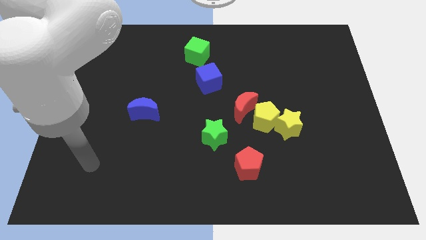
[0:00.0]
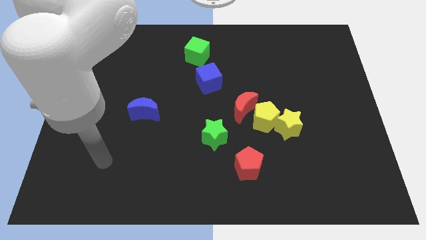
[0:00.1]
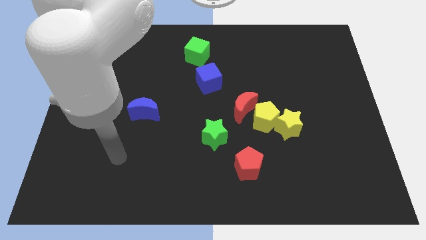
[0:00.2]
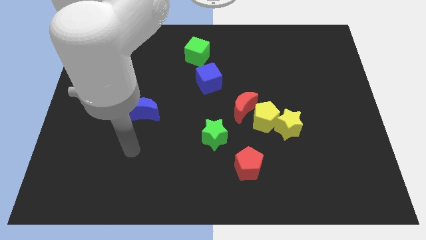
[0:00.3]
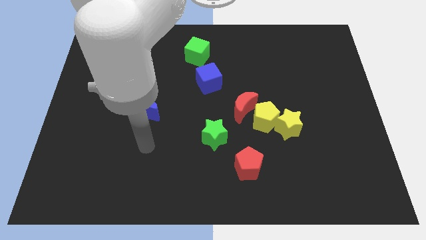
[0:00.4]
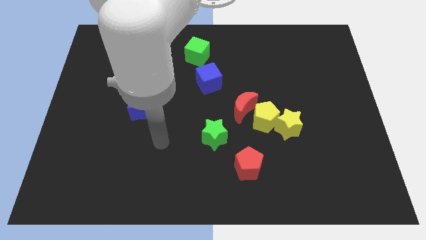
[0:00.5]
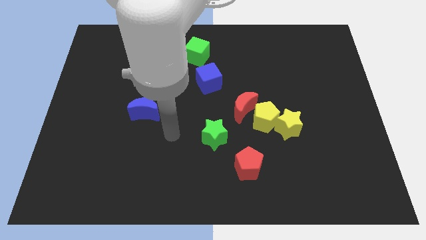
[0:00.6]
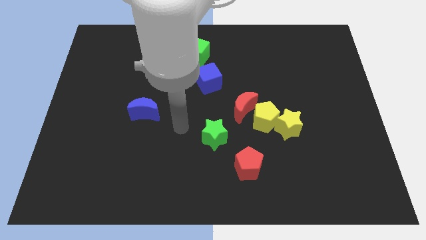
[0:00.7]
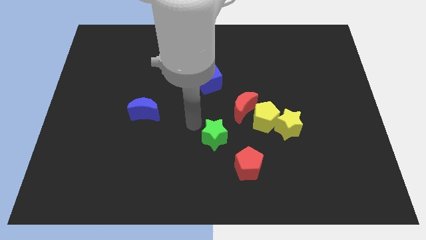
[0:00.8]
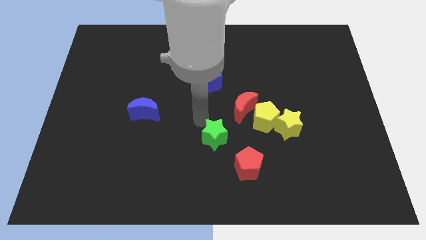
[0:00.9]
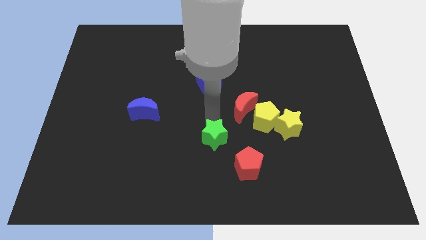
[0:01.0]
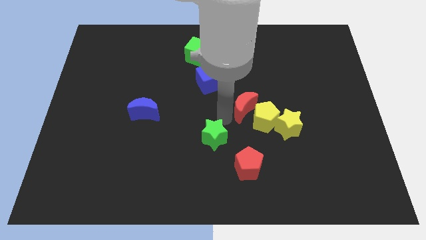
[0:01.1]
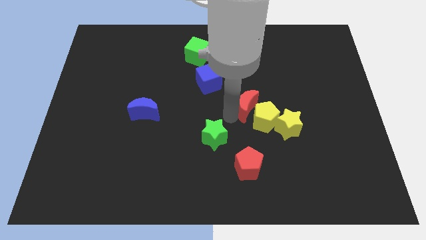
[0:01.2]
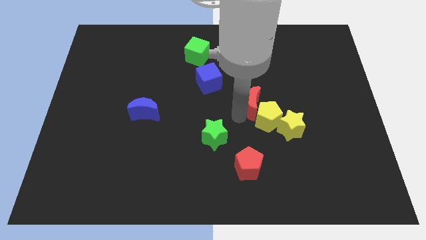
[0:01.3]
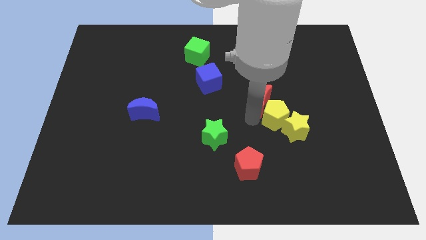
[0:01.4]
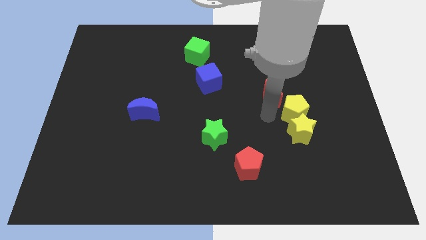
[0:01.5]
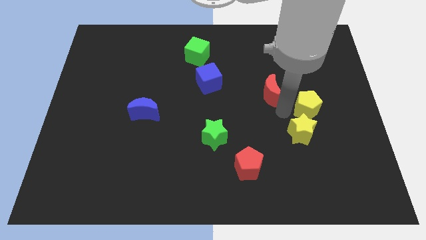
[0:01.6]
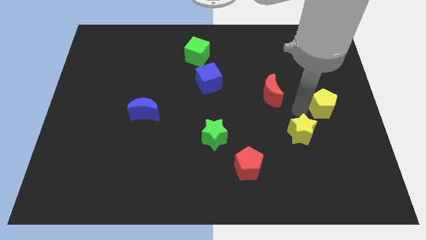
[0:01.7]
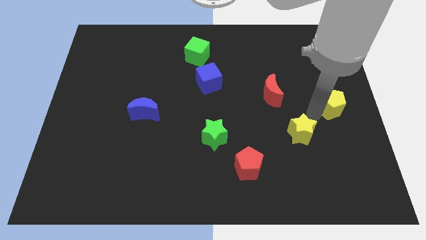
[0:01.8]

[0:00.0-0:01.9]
pull the yellow star apart from the yellow pentagon

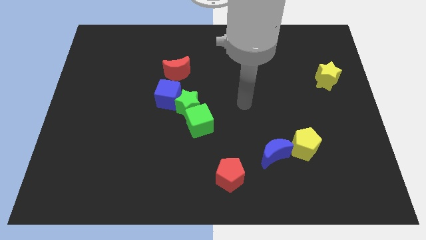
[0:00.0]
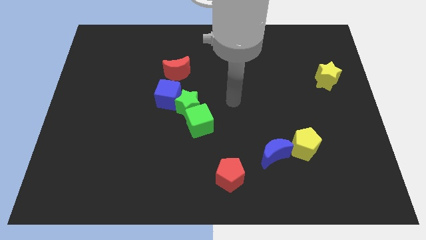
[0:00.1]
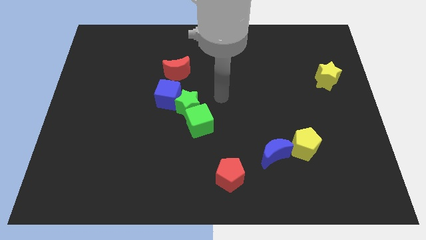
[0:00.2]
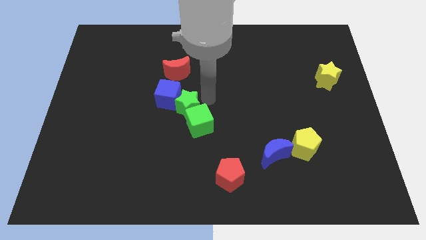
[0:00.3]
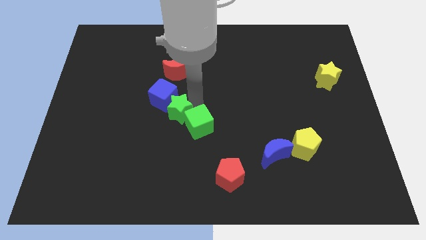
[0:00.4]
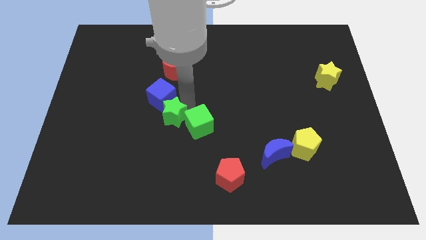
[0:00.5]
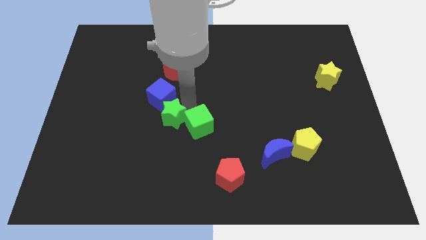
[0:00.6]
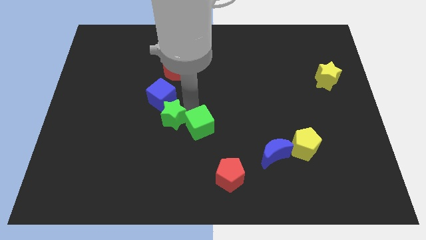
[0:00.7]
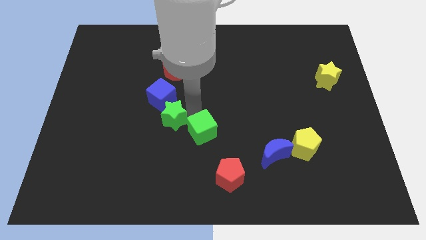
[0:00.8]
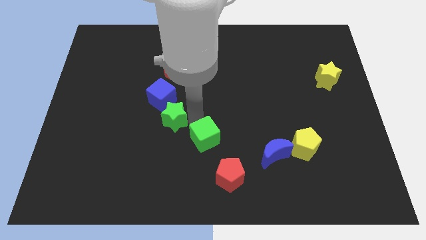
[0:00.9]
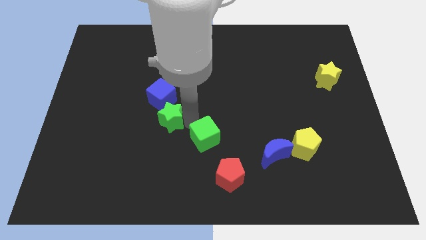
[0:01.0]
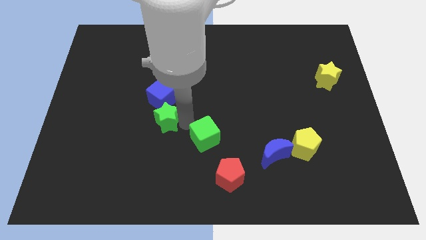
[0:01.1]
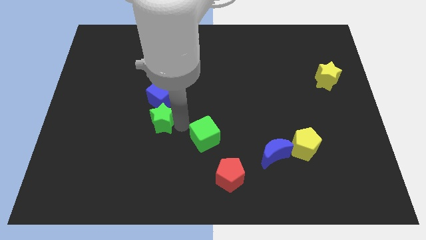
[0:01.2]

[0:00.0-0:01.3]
pull the green cube apart from the green star

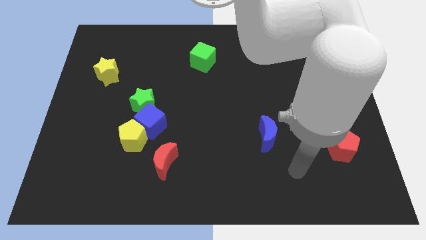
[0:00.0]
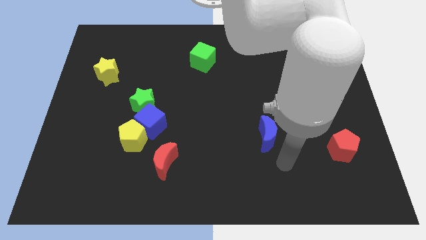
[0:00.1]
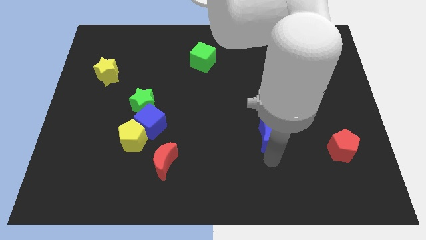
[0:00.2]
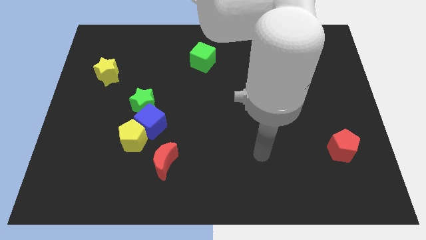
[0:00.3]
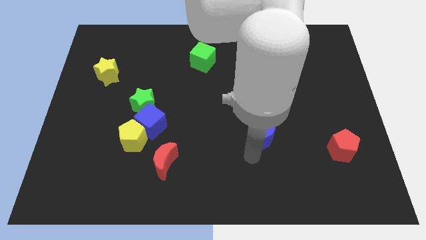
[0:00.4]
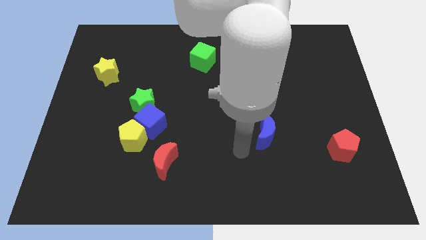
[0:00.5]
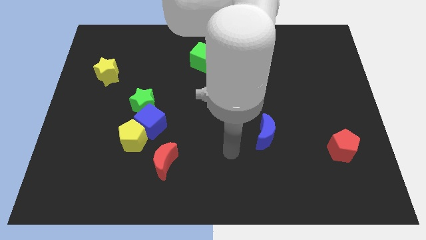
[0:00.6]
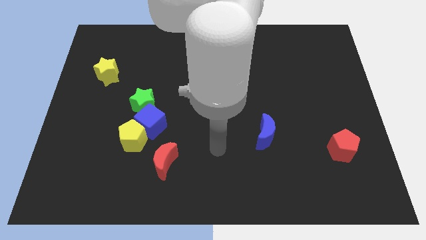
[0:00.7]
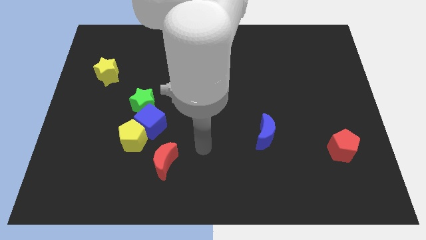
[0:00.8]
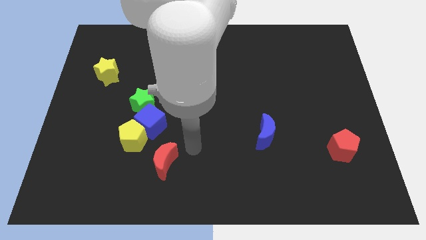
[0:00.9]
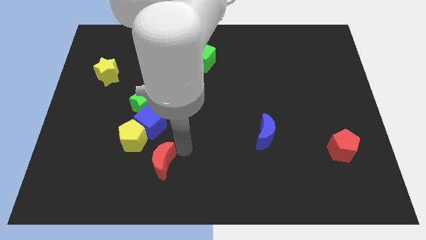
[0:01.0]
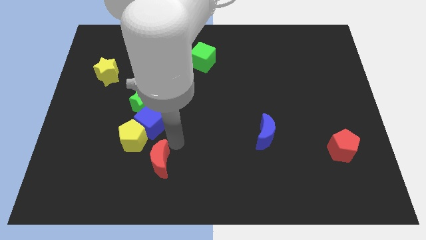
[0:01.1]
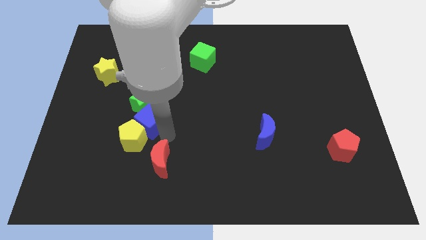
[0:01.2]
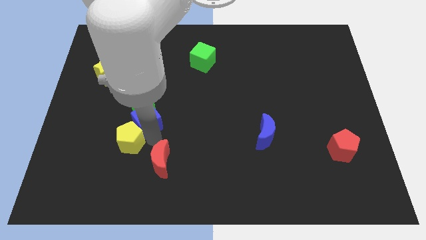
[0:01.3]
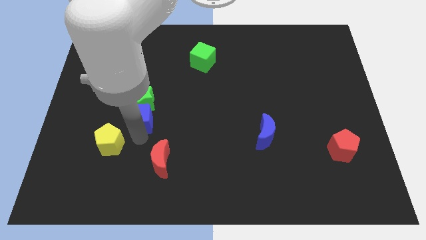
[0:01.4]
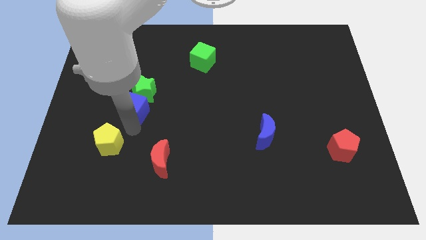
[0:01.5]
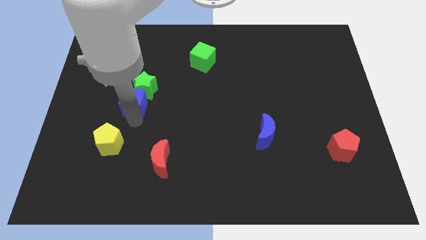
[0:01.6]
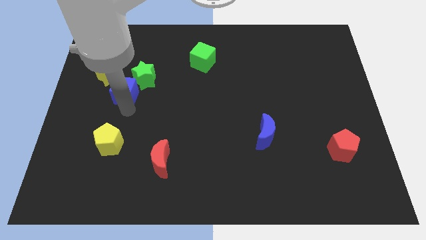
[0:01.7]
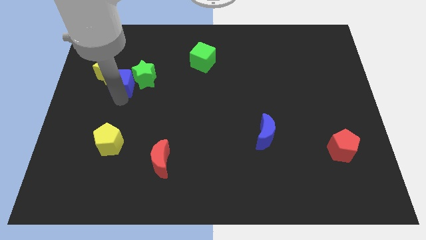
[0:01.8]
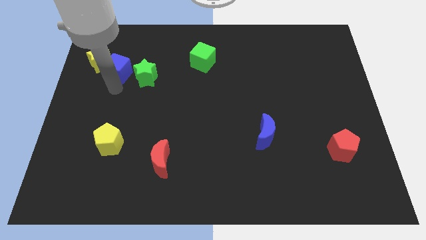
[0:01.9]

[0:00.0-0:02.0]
move the blue cube away from the yellow pentagon and green star

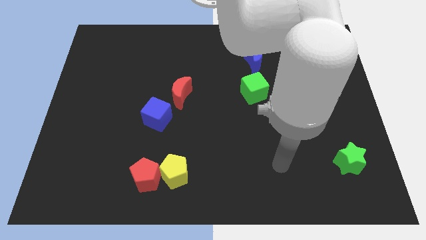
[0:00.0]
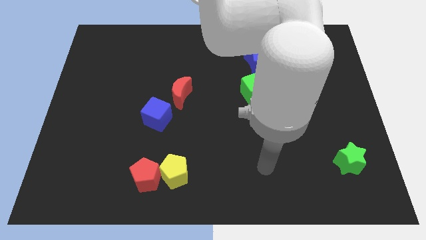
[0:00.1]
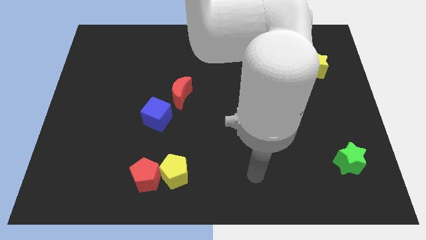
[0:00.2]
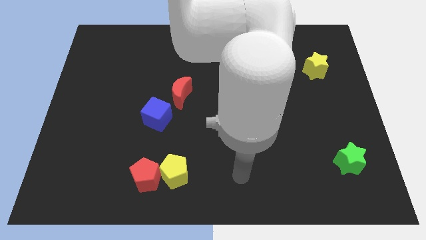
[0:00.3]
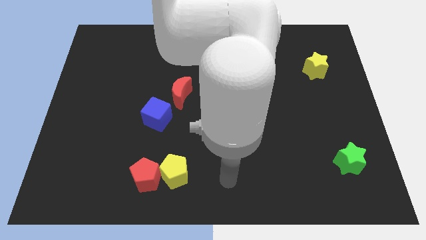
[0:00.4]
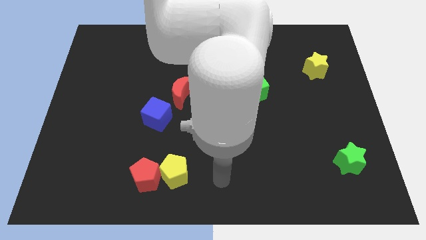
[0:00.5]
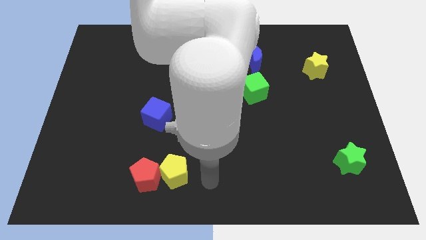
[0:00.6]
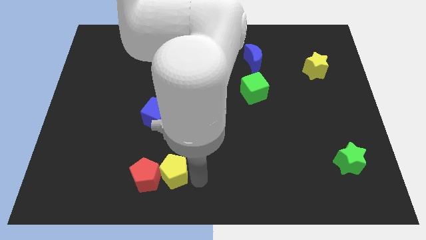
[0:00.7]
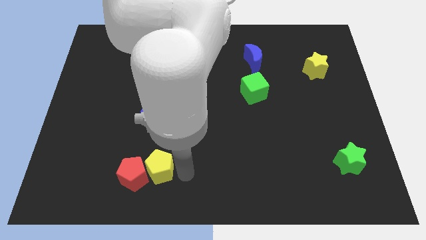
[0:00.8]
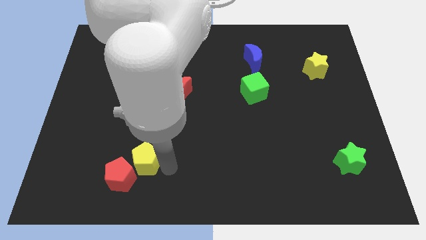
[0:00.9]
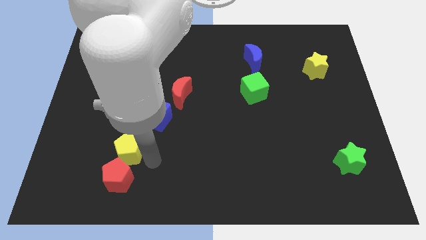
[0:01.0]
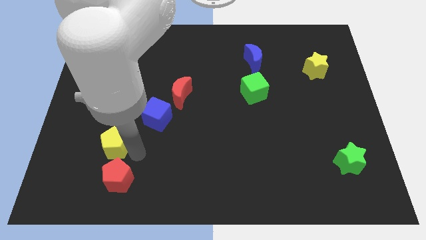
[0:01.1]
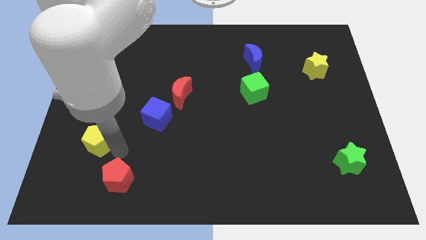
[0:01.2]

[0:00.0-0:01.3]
move the red pentagon away from the yellow pentagon

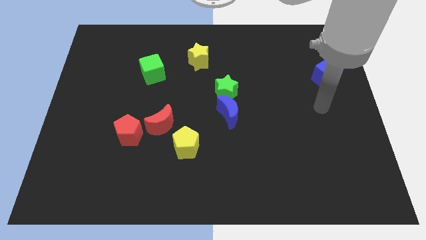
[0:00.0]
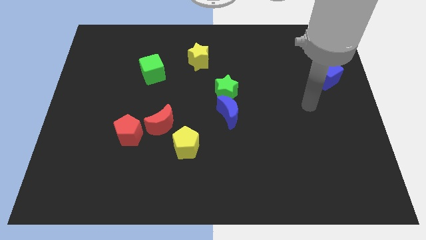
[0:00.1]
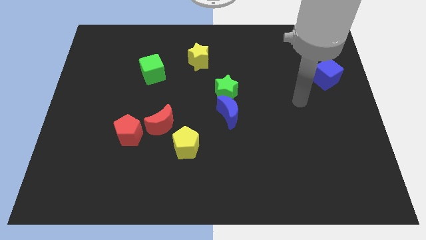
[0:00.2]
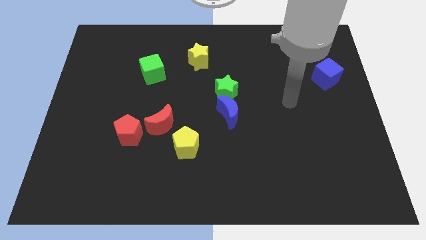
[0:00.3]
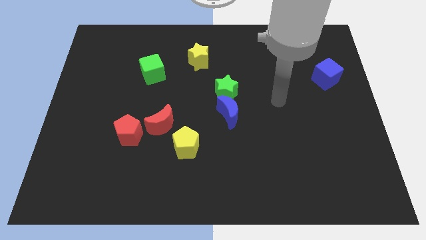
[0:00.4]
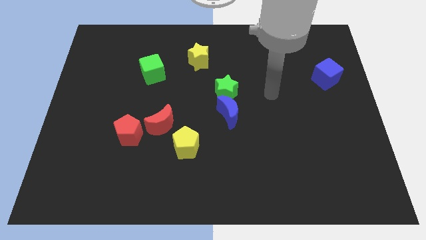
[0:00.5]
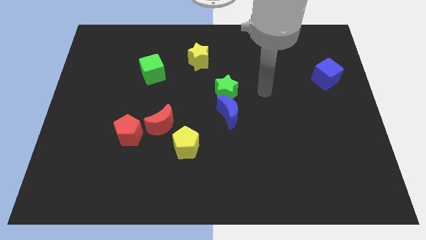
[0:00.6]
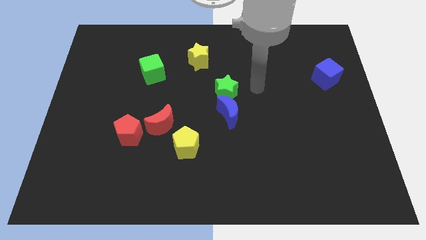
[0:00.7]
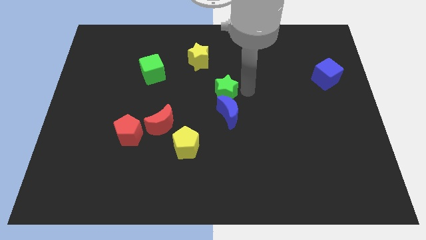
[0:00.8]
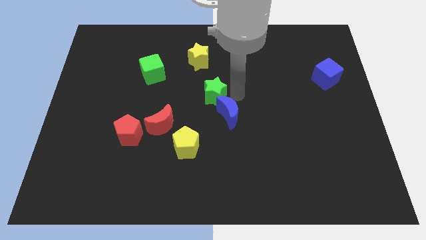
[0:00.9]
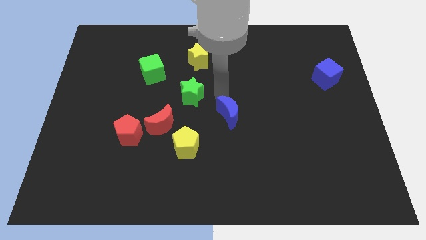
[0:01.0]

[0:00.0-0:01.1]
pull the blue moon apart from the green star

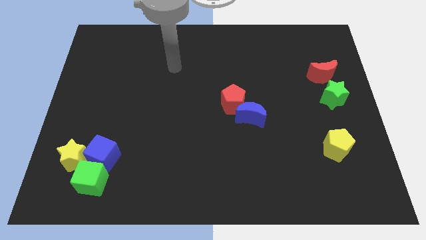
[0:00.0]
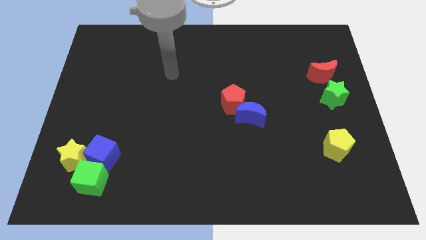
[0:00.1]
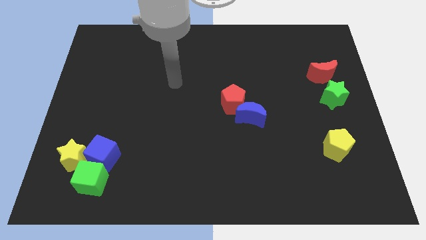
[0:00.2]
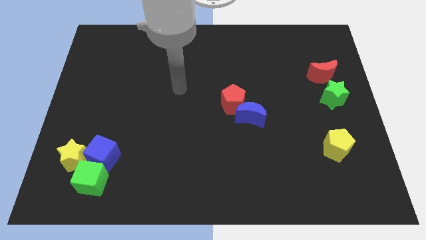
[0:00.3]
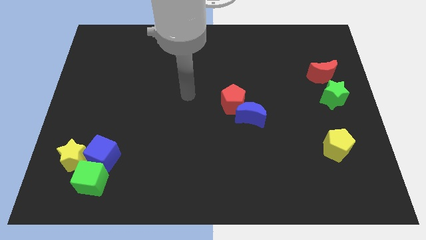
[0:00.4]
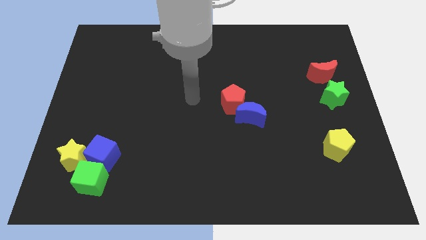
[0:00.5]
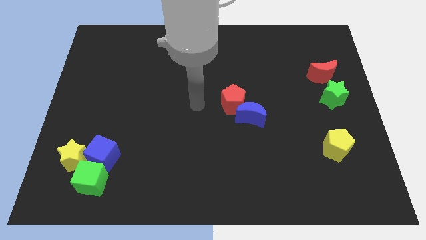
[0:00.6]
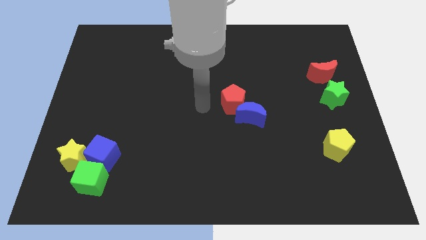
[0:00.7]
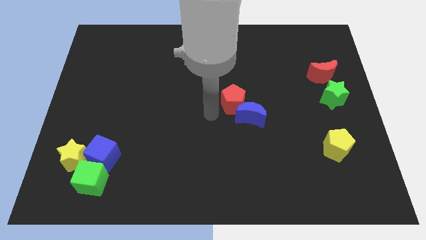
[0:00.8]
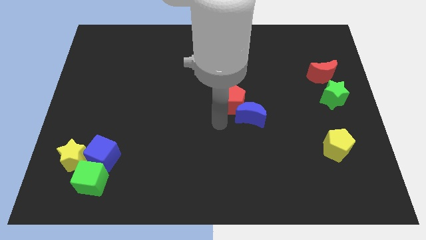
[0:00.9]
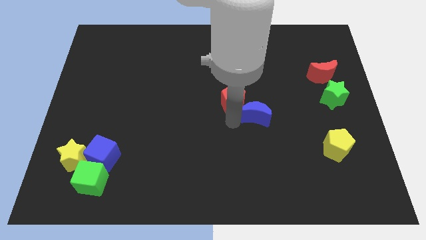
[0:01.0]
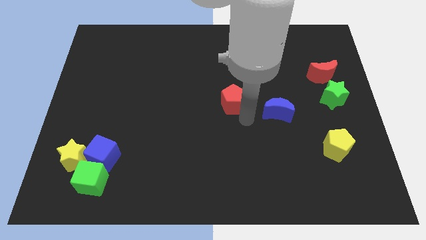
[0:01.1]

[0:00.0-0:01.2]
pull the red pentagon apart from the blue moon

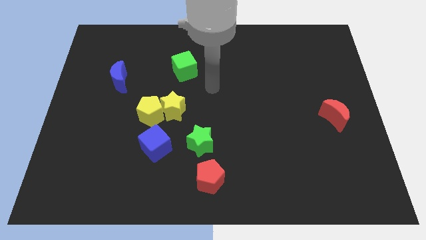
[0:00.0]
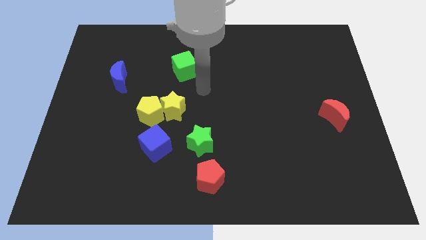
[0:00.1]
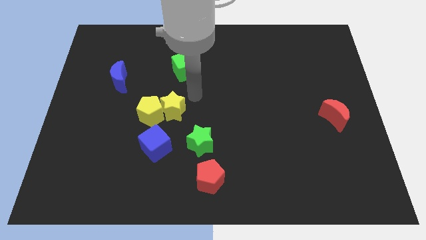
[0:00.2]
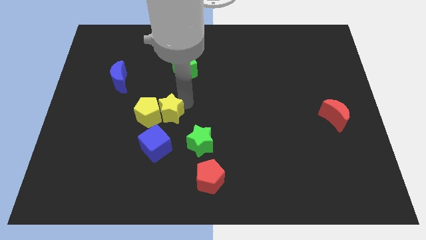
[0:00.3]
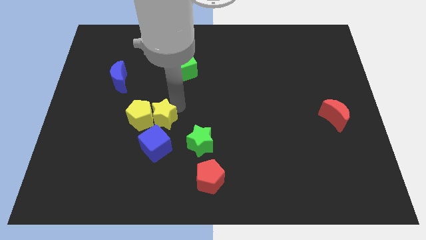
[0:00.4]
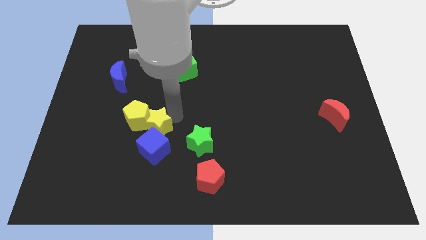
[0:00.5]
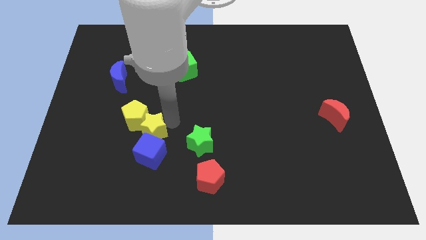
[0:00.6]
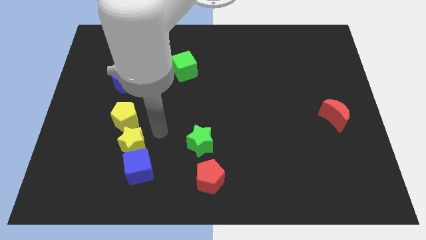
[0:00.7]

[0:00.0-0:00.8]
pull the yellow pentagon apart from the yellow star and blue cube
